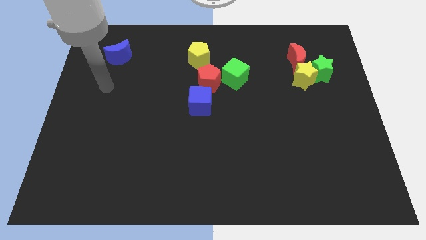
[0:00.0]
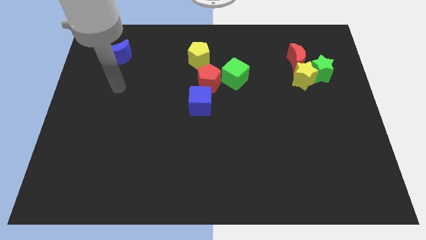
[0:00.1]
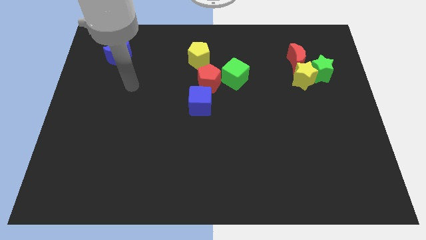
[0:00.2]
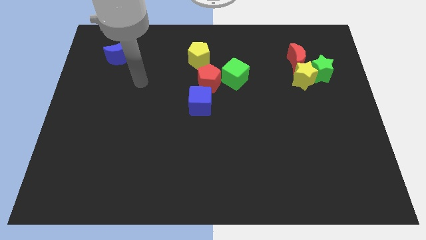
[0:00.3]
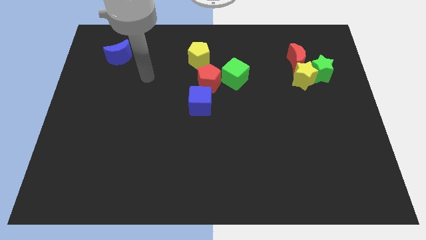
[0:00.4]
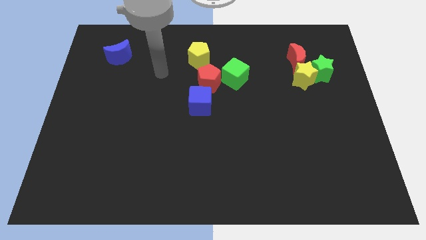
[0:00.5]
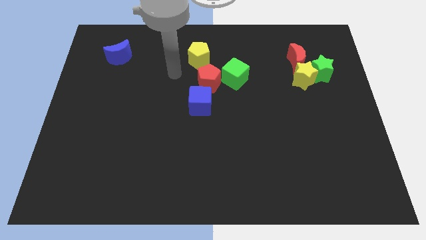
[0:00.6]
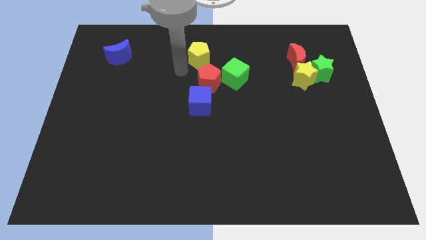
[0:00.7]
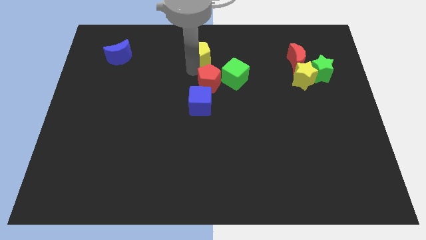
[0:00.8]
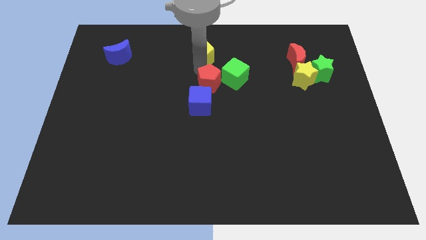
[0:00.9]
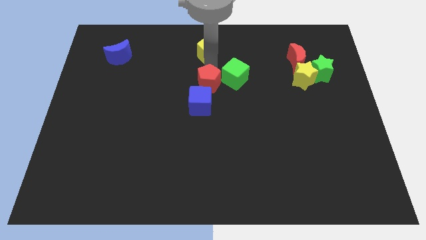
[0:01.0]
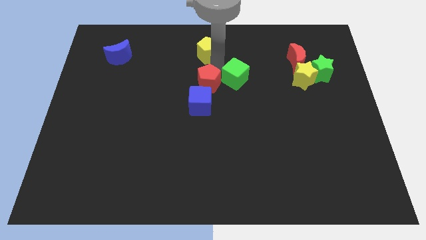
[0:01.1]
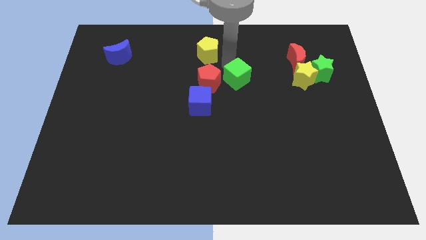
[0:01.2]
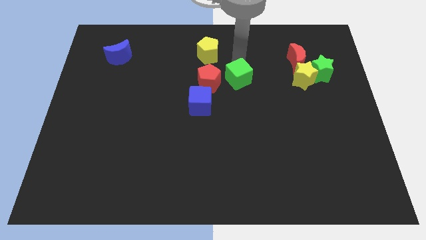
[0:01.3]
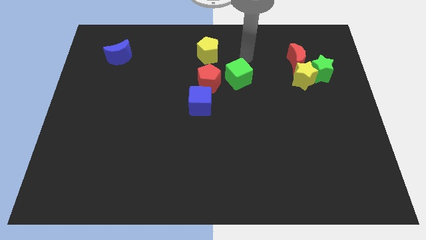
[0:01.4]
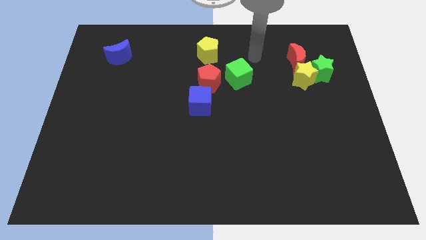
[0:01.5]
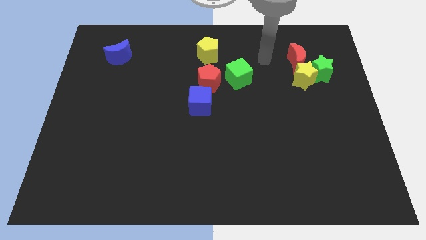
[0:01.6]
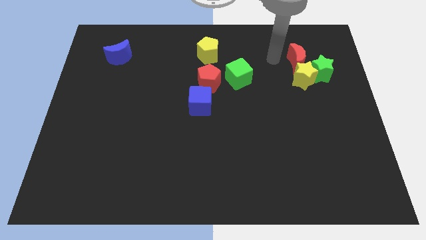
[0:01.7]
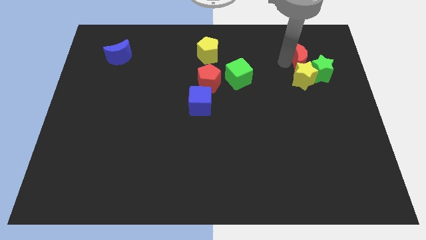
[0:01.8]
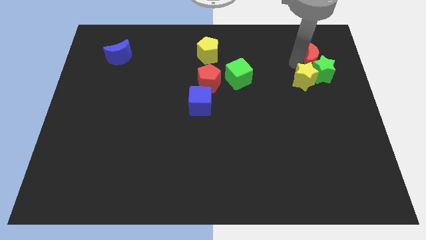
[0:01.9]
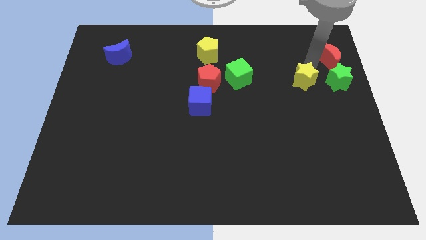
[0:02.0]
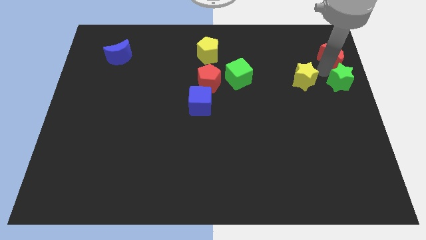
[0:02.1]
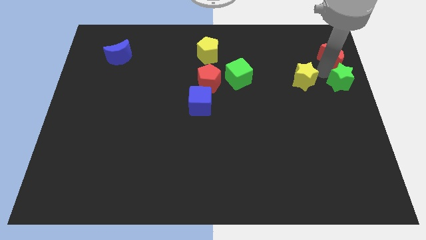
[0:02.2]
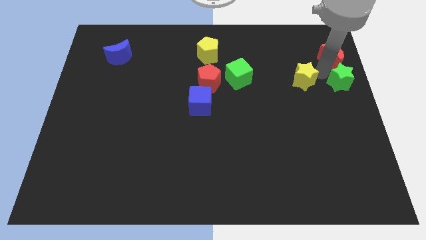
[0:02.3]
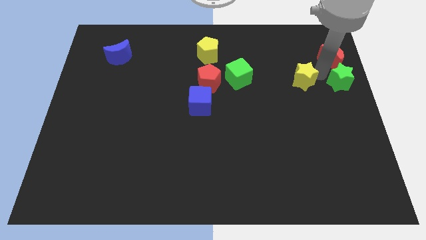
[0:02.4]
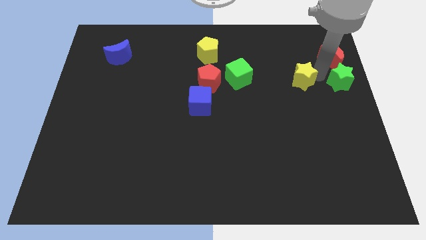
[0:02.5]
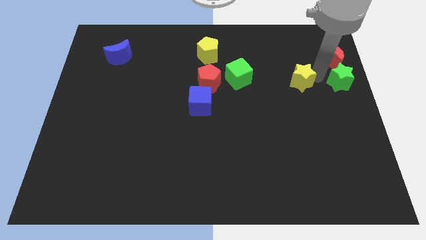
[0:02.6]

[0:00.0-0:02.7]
separate the yellow star from the green star and red moon

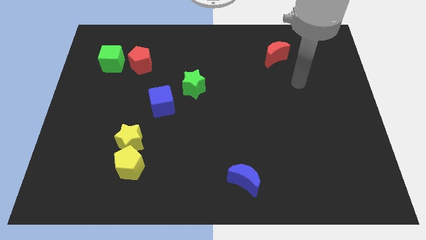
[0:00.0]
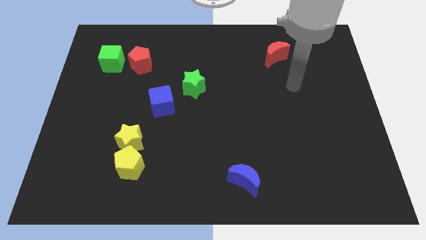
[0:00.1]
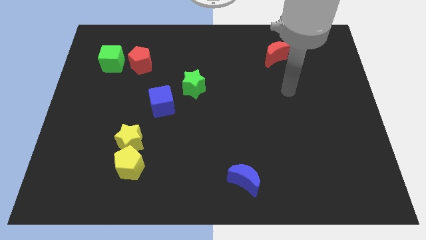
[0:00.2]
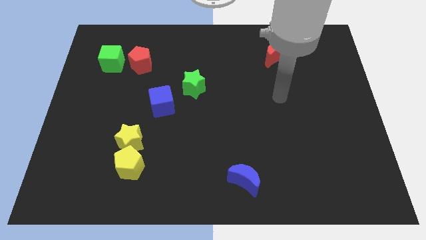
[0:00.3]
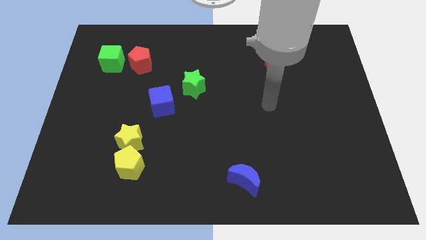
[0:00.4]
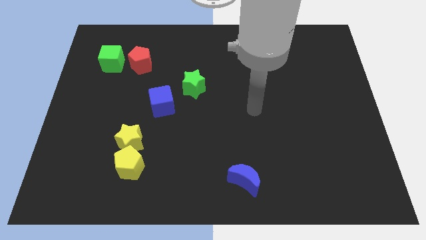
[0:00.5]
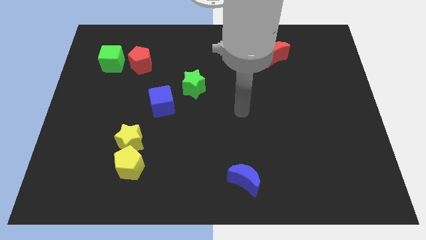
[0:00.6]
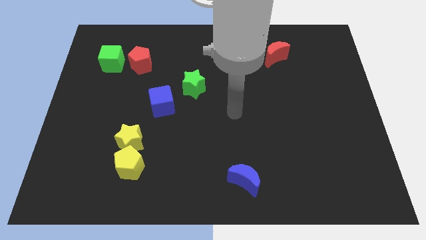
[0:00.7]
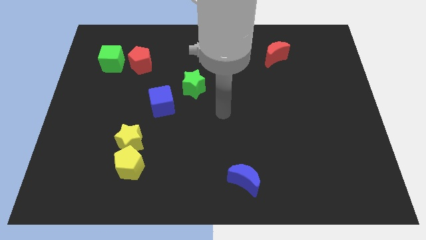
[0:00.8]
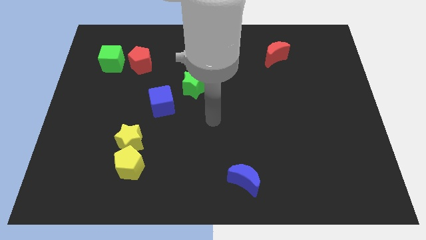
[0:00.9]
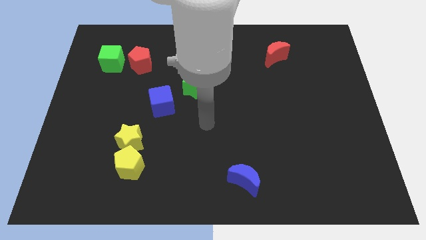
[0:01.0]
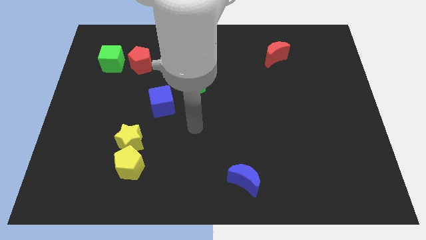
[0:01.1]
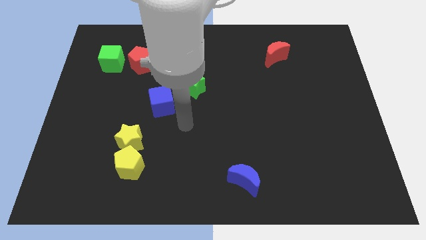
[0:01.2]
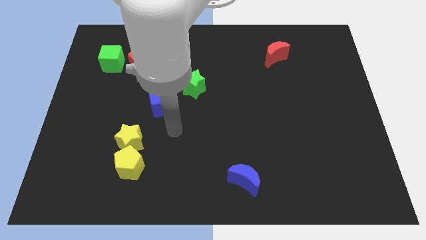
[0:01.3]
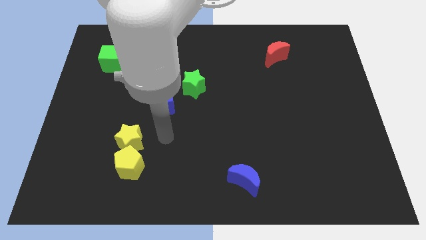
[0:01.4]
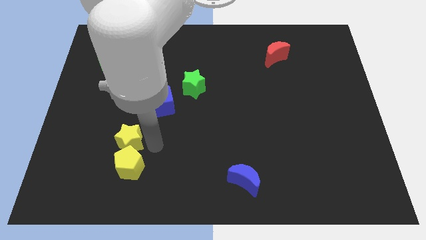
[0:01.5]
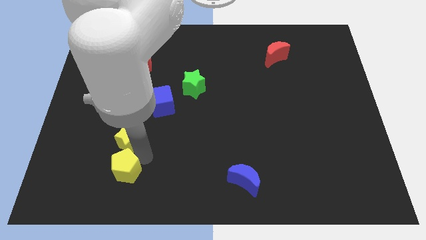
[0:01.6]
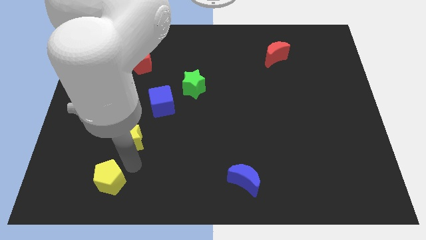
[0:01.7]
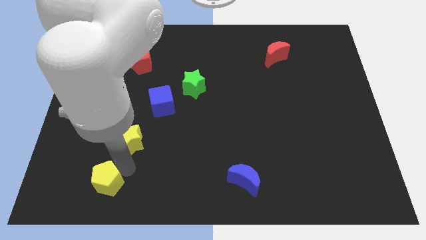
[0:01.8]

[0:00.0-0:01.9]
separate the yellow star from the yellow pentagon

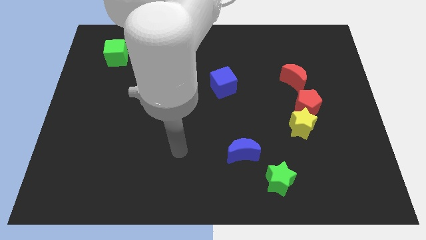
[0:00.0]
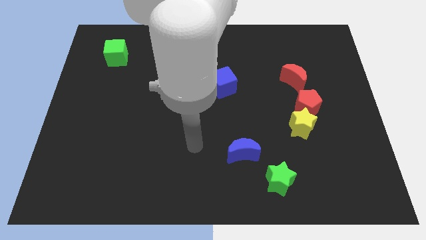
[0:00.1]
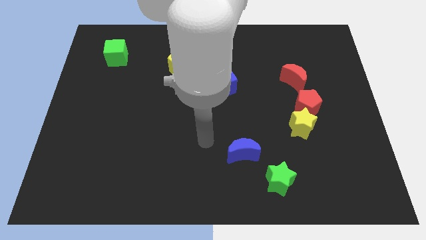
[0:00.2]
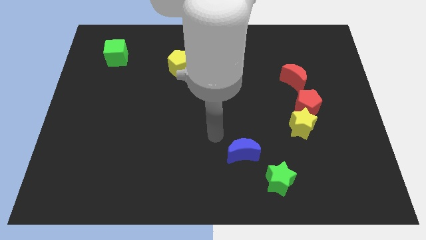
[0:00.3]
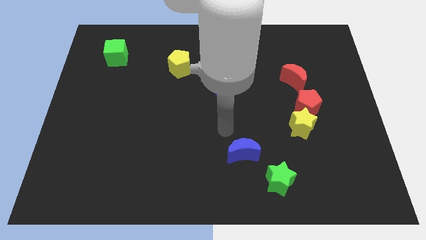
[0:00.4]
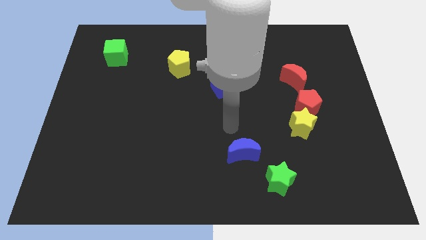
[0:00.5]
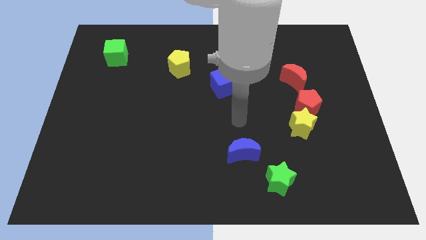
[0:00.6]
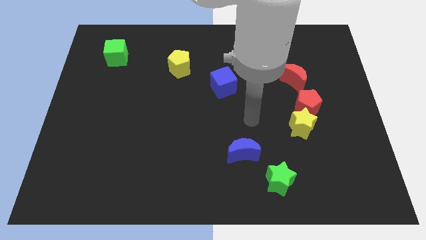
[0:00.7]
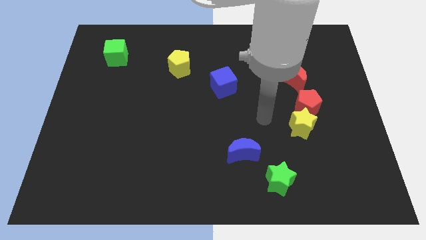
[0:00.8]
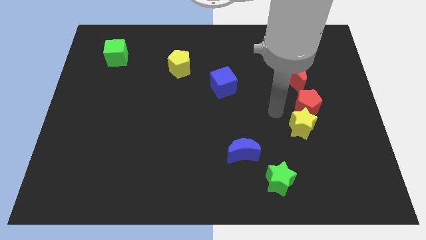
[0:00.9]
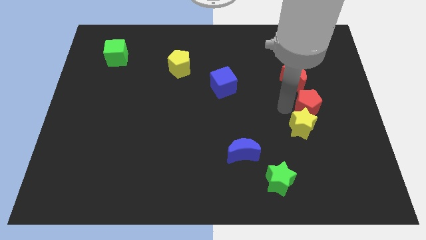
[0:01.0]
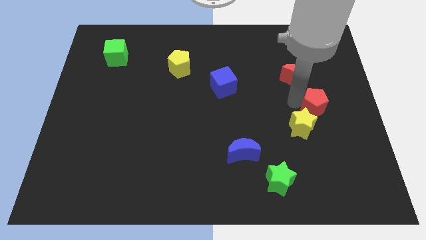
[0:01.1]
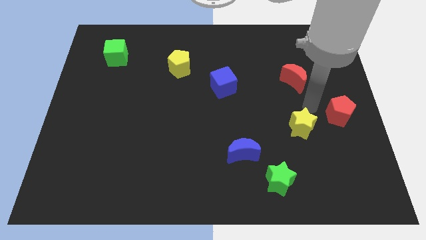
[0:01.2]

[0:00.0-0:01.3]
separate the yellow star from the red pentagon

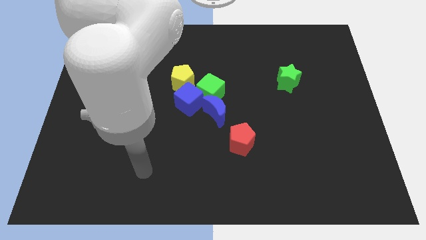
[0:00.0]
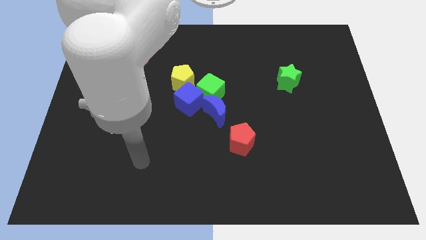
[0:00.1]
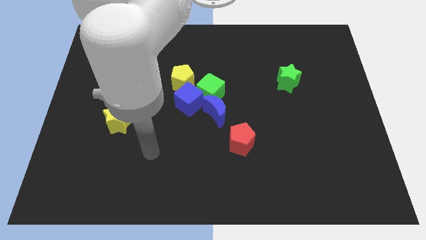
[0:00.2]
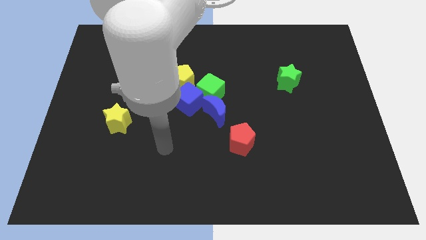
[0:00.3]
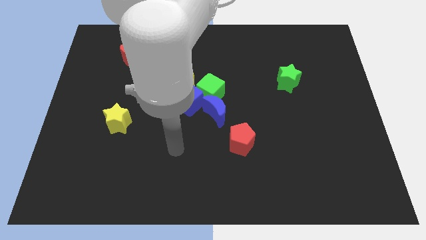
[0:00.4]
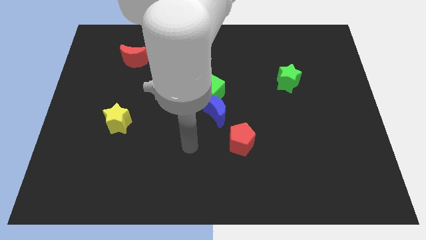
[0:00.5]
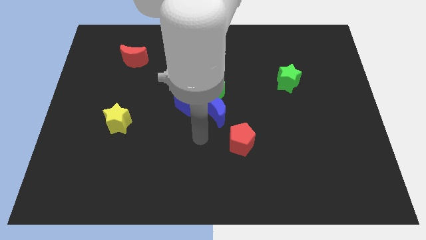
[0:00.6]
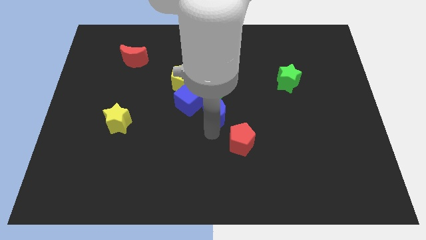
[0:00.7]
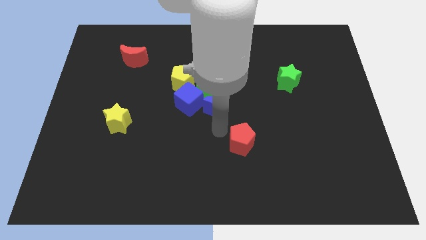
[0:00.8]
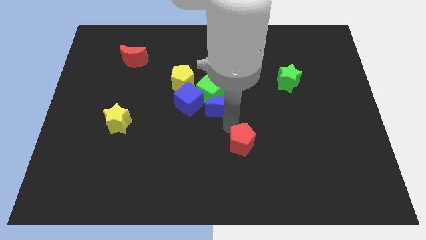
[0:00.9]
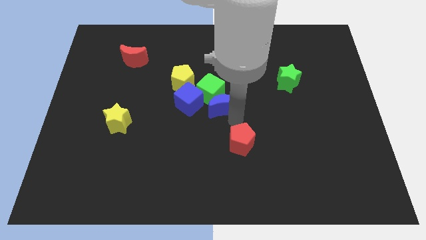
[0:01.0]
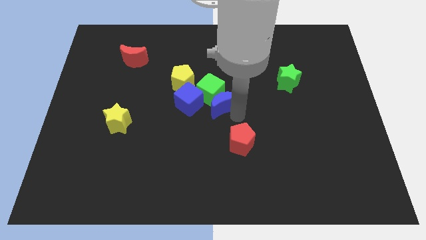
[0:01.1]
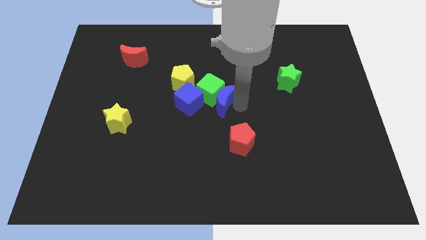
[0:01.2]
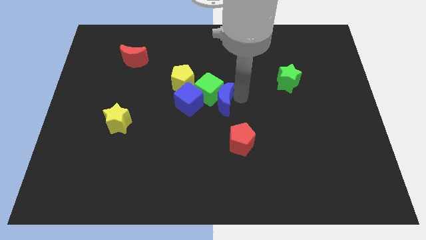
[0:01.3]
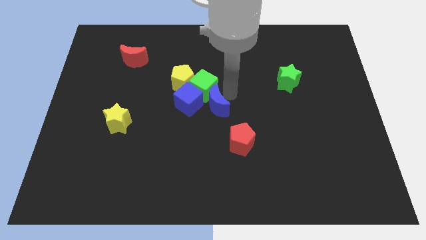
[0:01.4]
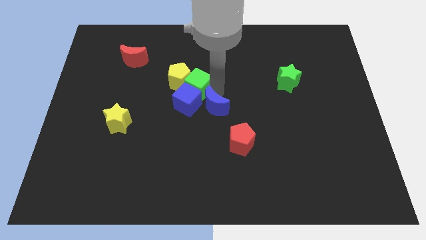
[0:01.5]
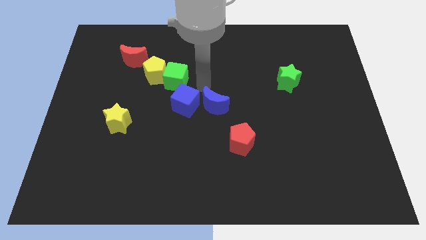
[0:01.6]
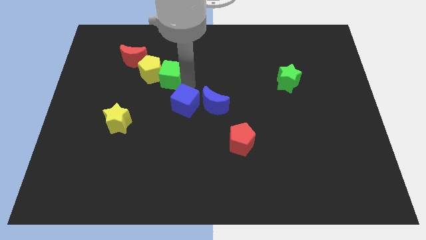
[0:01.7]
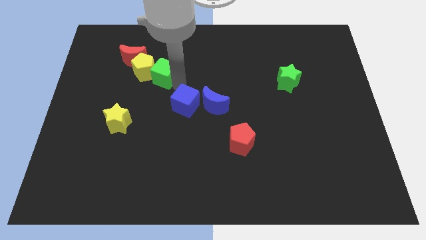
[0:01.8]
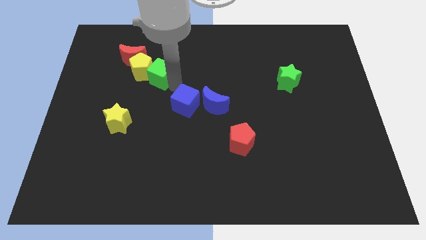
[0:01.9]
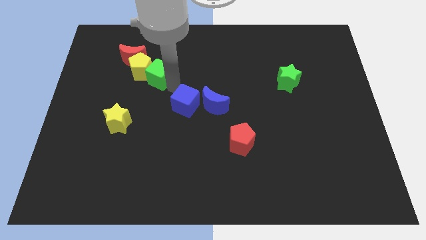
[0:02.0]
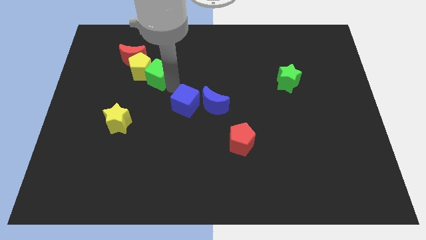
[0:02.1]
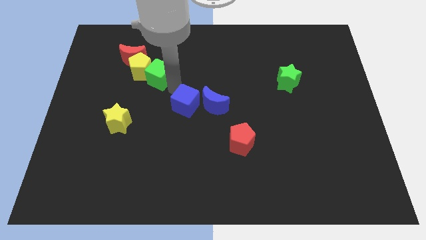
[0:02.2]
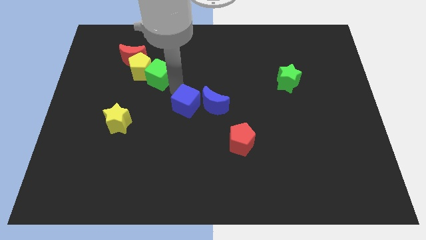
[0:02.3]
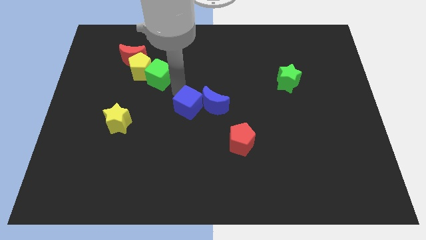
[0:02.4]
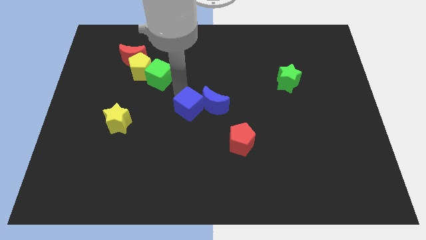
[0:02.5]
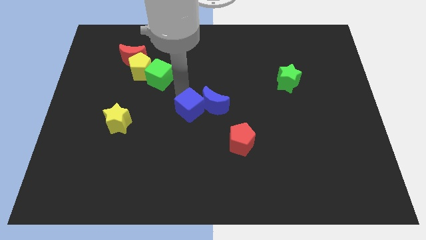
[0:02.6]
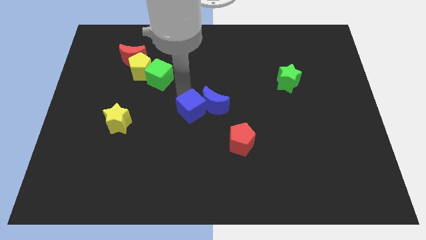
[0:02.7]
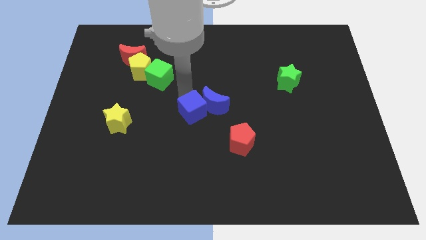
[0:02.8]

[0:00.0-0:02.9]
pull the blue cube apart from the green cube, yellow pentagon, and blue moon

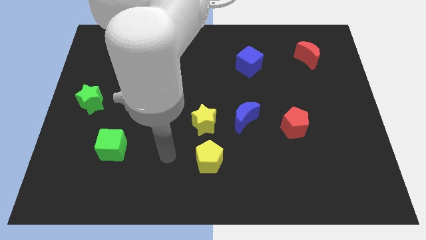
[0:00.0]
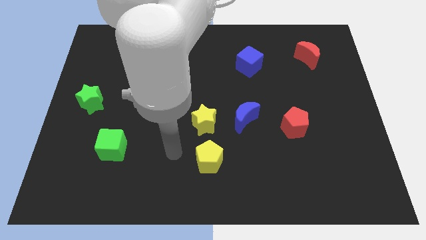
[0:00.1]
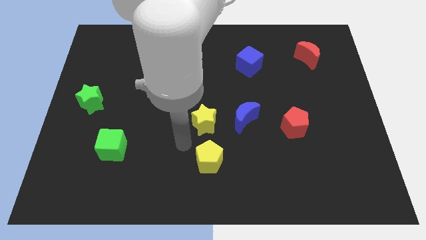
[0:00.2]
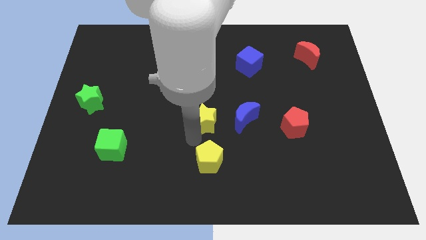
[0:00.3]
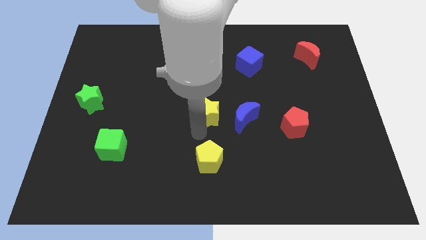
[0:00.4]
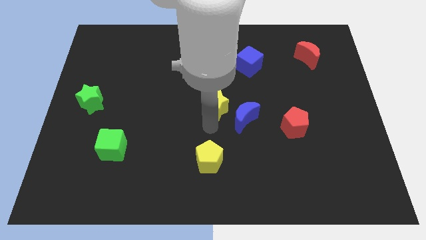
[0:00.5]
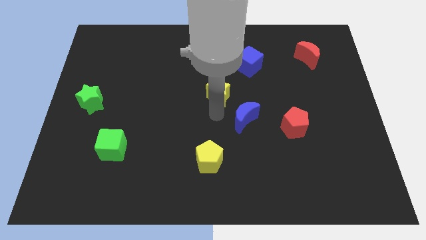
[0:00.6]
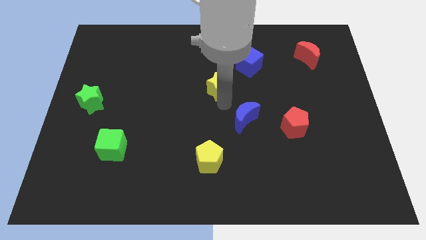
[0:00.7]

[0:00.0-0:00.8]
move the blue moon away from the yellow star
